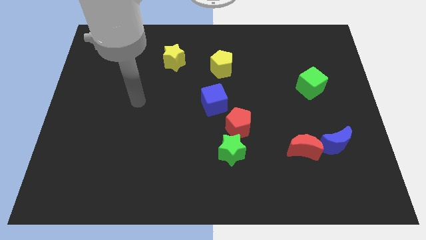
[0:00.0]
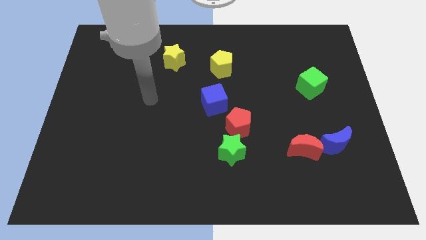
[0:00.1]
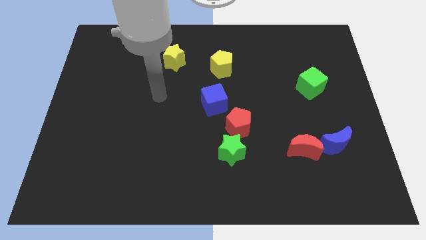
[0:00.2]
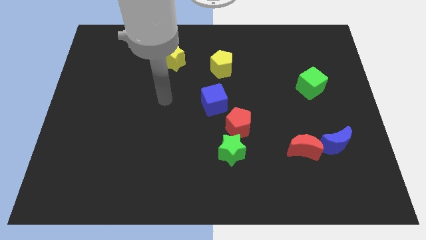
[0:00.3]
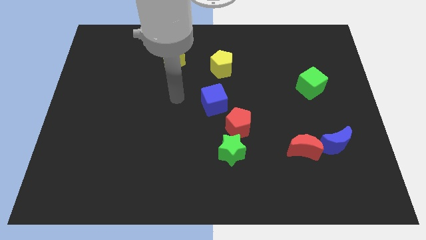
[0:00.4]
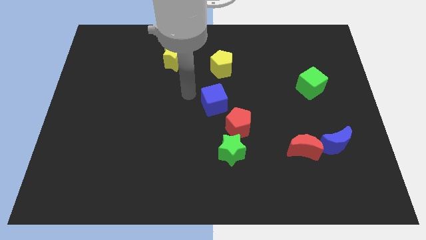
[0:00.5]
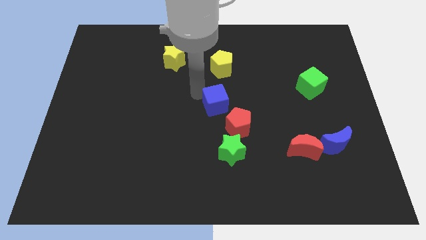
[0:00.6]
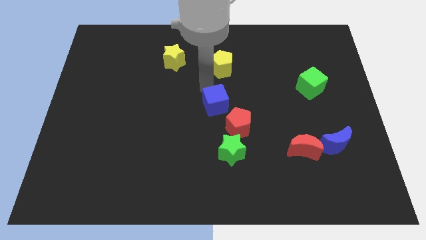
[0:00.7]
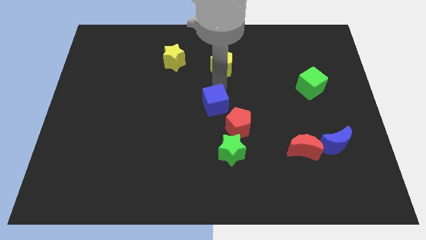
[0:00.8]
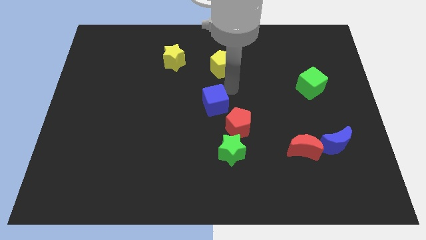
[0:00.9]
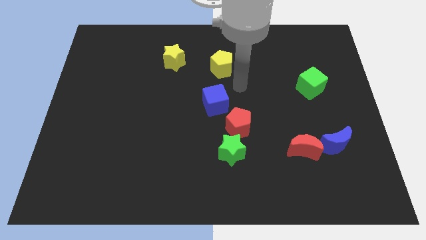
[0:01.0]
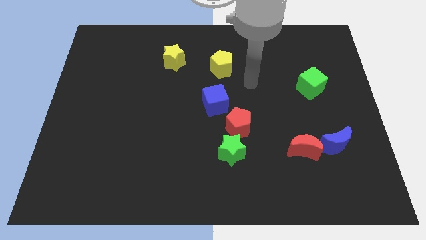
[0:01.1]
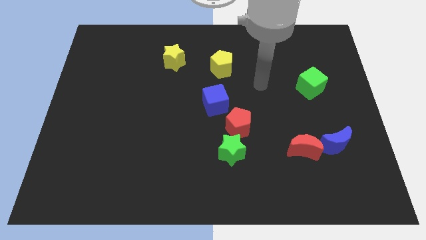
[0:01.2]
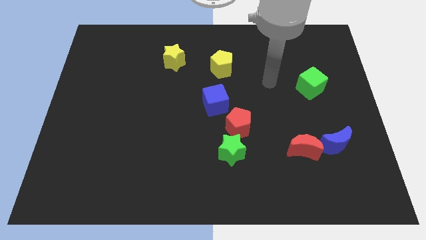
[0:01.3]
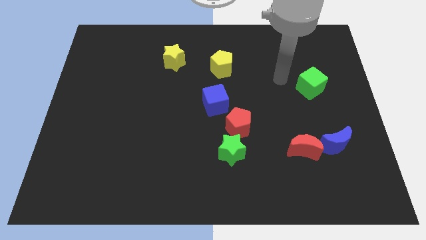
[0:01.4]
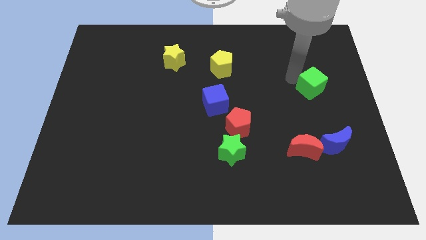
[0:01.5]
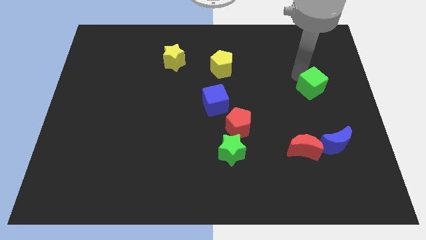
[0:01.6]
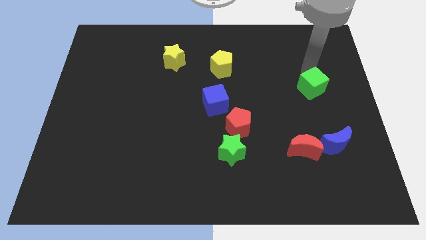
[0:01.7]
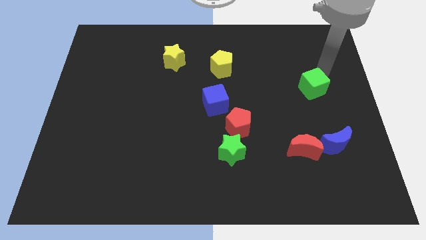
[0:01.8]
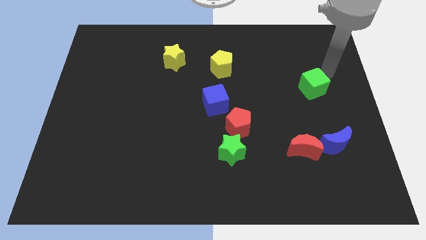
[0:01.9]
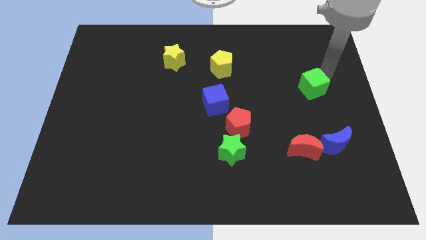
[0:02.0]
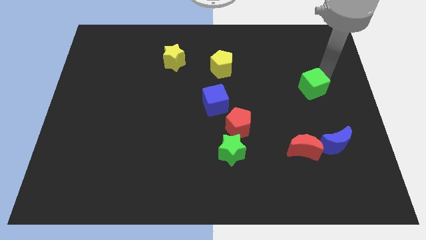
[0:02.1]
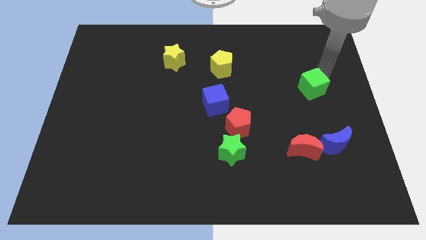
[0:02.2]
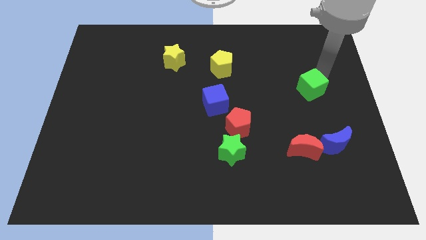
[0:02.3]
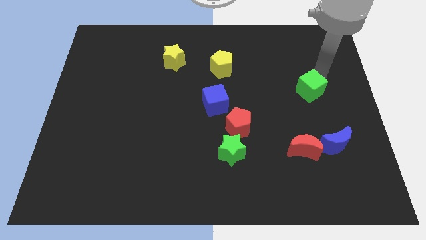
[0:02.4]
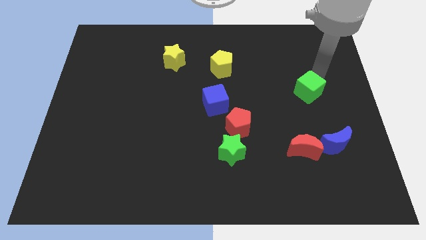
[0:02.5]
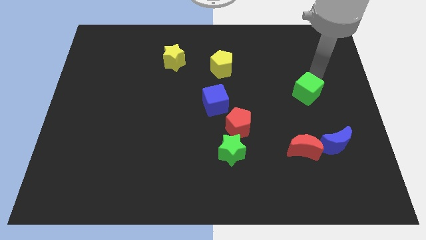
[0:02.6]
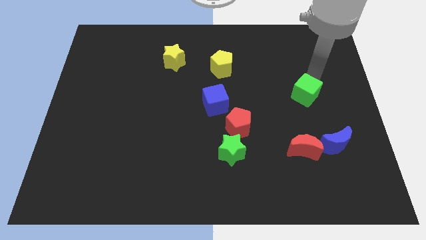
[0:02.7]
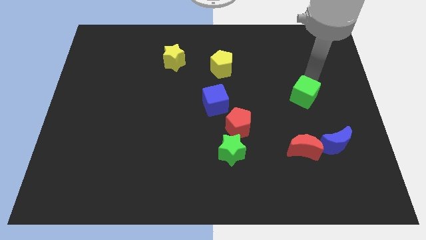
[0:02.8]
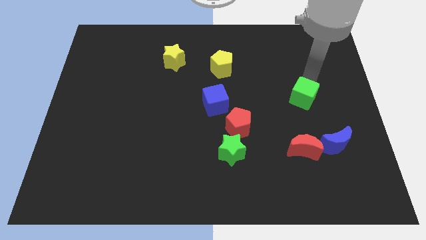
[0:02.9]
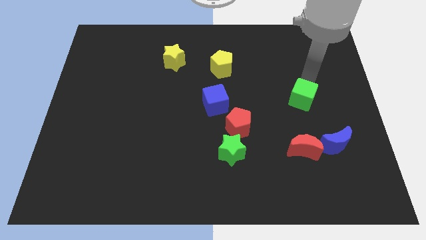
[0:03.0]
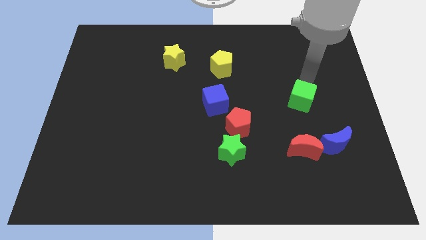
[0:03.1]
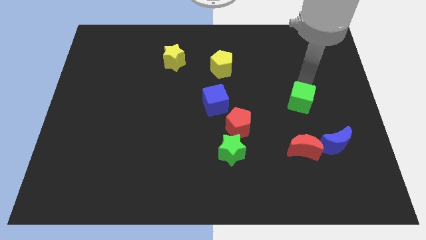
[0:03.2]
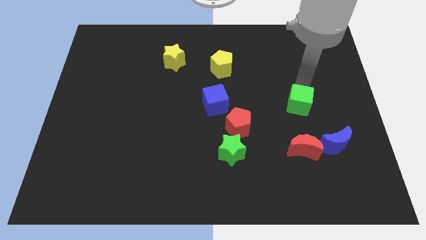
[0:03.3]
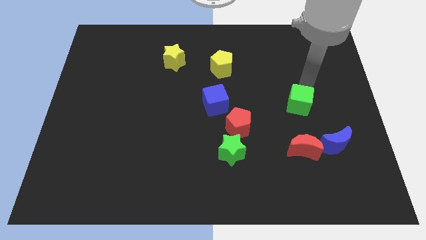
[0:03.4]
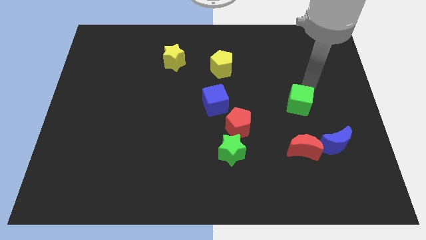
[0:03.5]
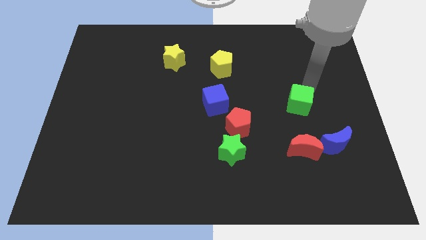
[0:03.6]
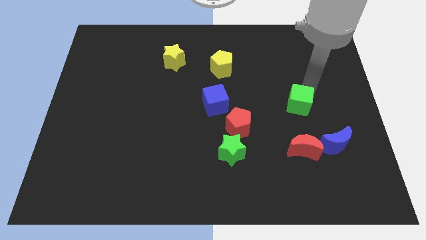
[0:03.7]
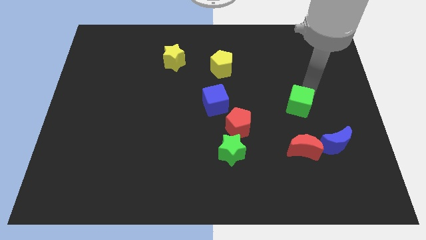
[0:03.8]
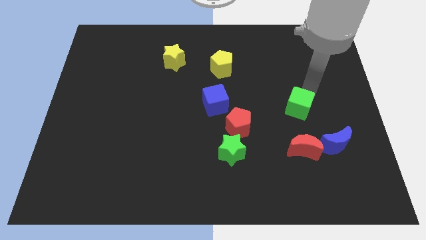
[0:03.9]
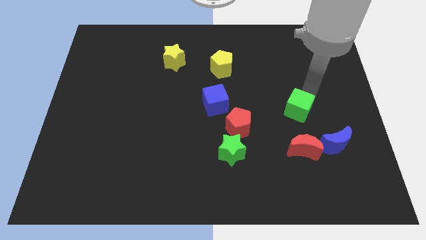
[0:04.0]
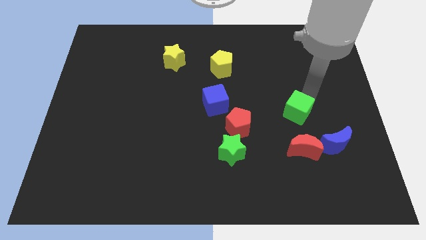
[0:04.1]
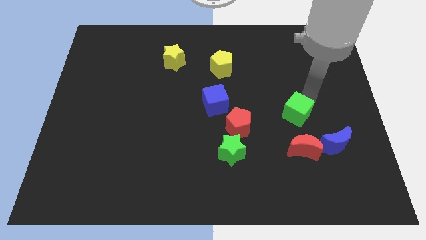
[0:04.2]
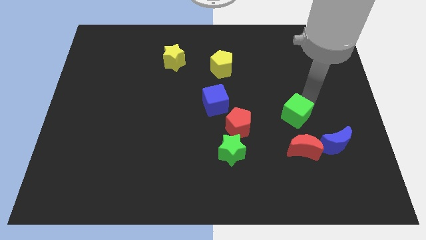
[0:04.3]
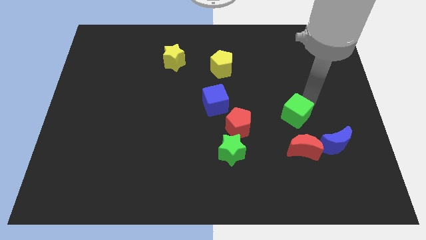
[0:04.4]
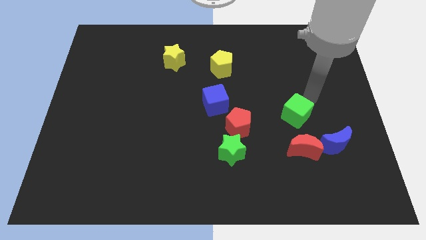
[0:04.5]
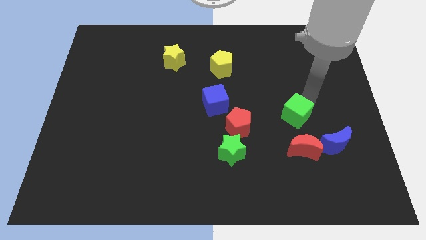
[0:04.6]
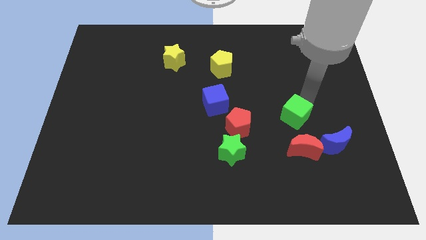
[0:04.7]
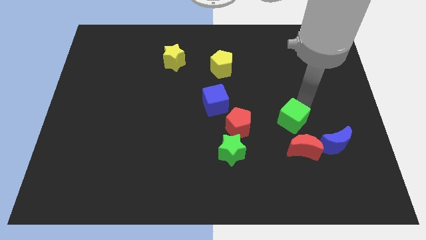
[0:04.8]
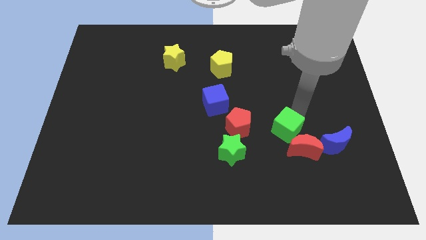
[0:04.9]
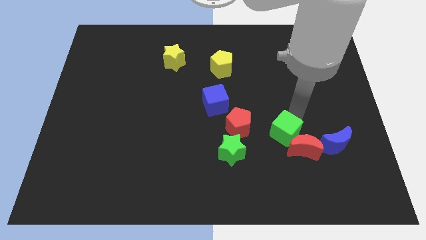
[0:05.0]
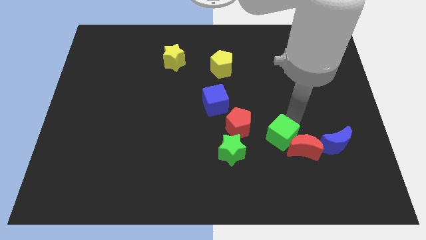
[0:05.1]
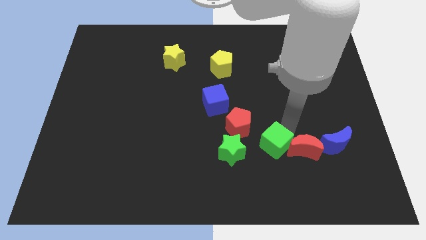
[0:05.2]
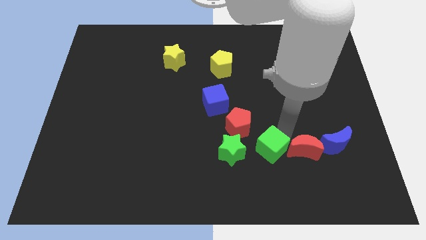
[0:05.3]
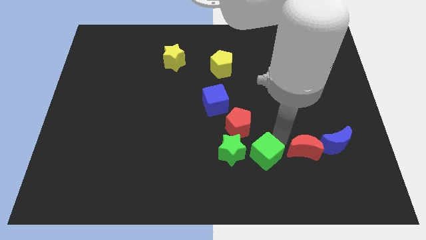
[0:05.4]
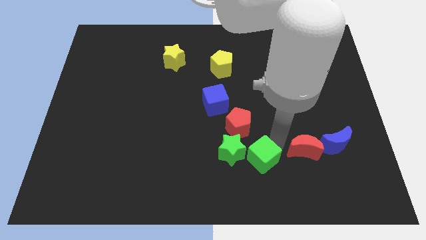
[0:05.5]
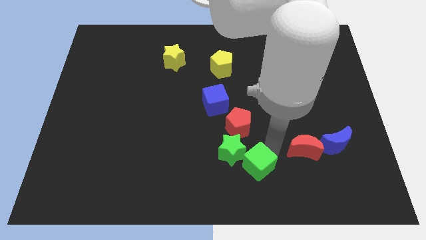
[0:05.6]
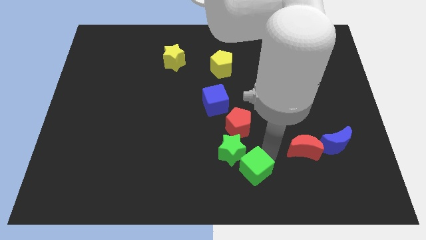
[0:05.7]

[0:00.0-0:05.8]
slide the green cube to the bottom

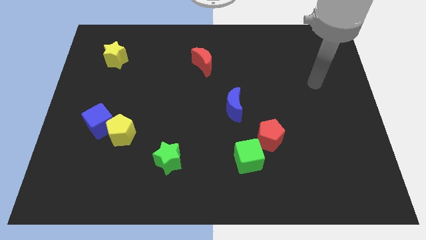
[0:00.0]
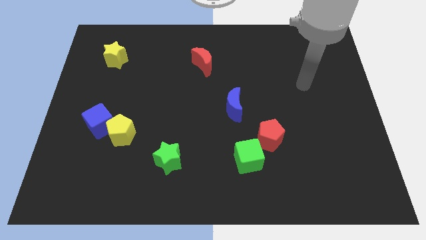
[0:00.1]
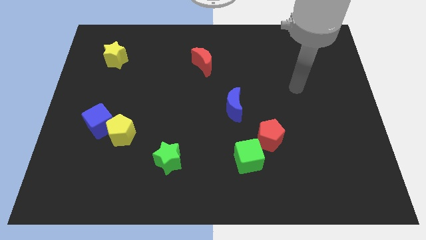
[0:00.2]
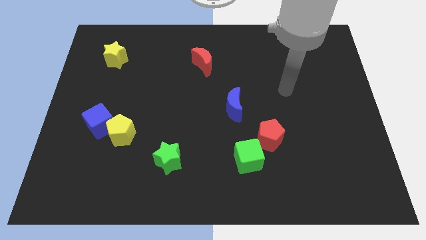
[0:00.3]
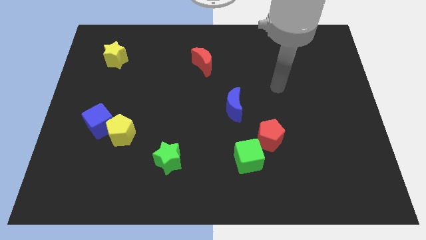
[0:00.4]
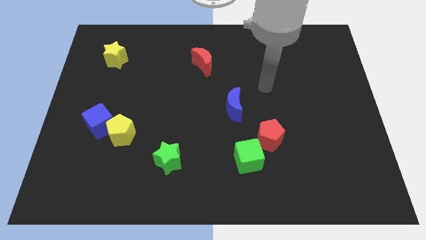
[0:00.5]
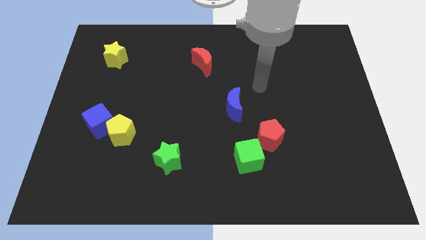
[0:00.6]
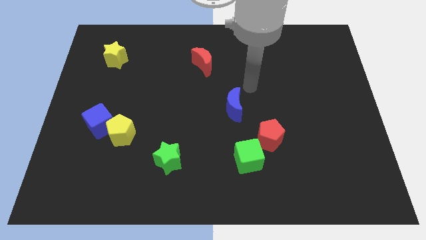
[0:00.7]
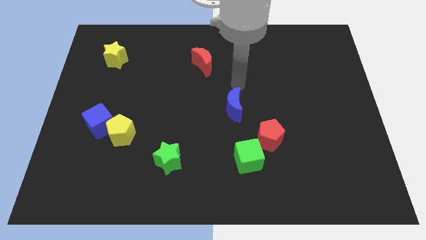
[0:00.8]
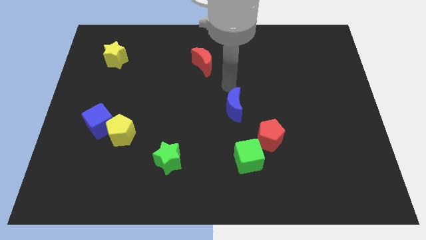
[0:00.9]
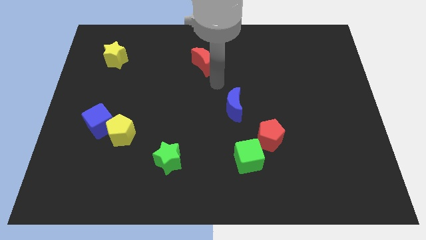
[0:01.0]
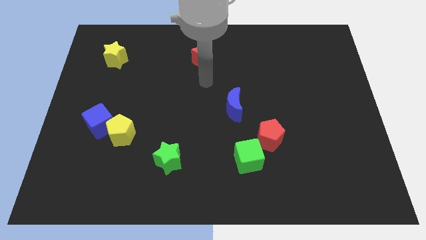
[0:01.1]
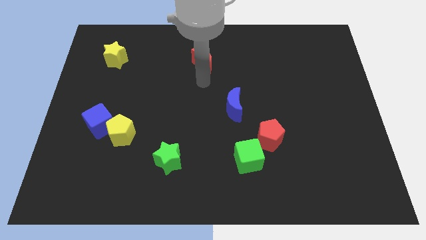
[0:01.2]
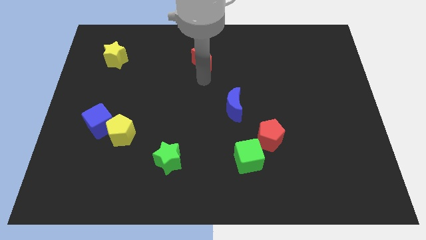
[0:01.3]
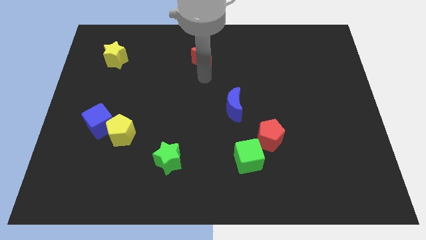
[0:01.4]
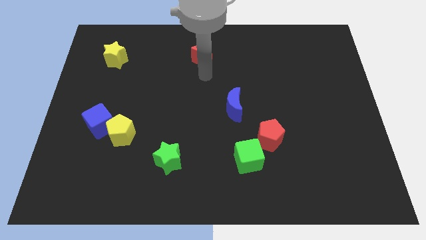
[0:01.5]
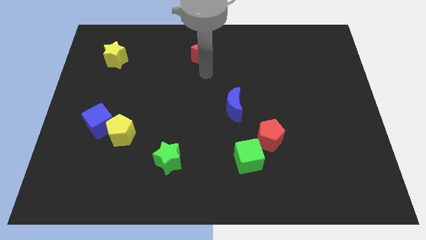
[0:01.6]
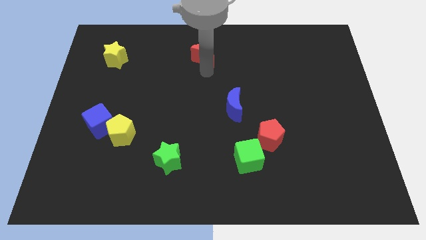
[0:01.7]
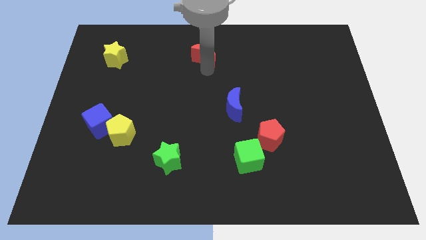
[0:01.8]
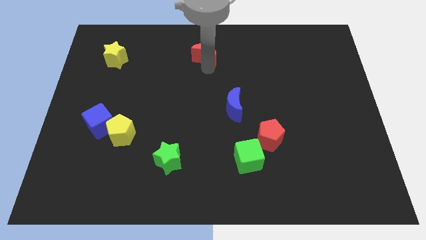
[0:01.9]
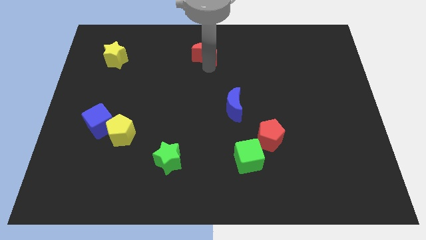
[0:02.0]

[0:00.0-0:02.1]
slide the red moon to the towards your base
